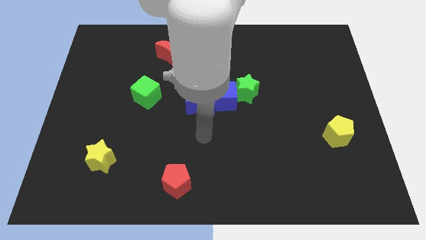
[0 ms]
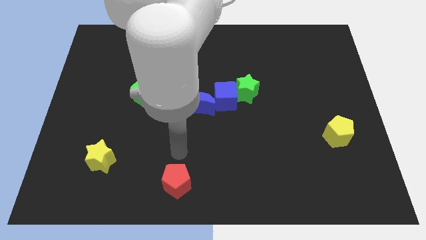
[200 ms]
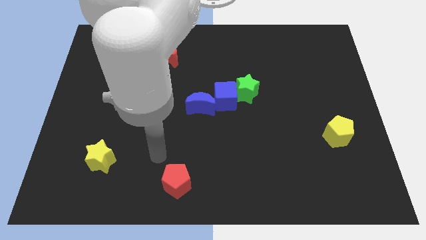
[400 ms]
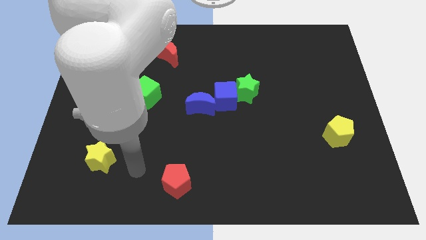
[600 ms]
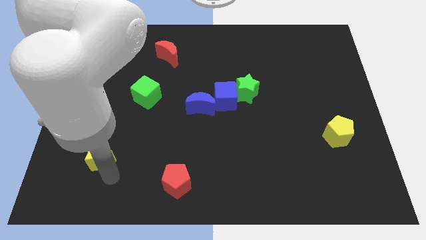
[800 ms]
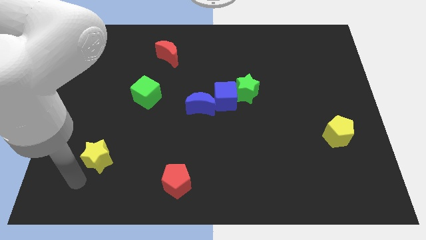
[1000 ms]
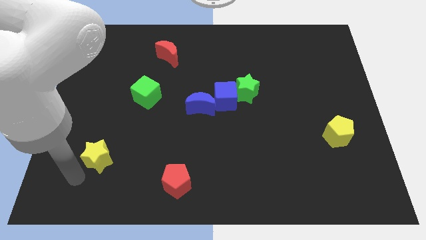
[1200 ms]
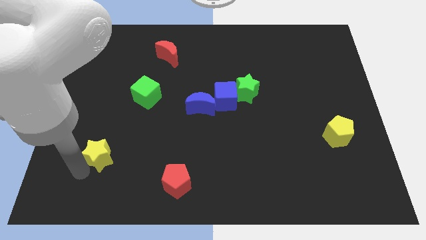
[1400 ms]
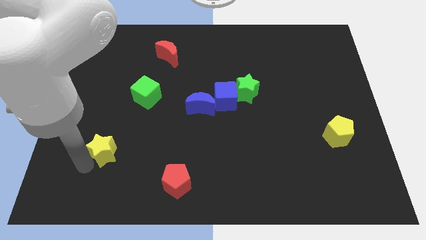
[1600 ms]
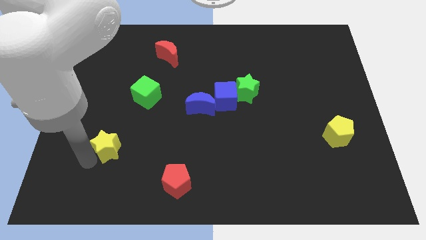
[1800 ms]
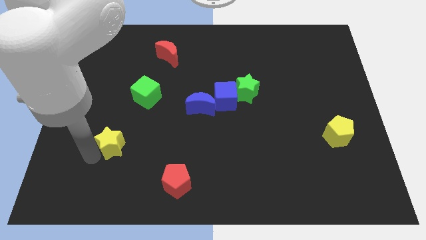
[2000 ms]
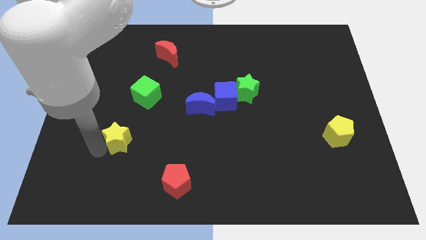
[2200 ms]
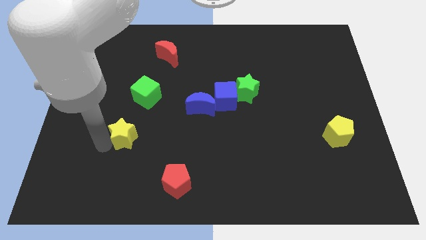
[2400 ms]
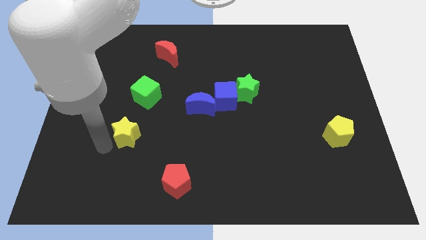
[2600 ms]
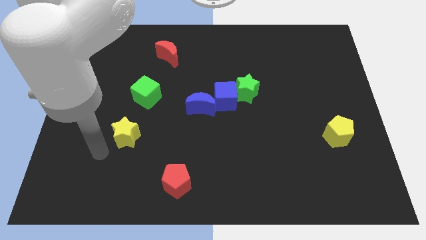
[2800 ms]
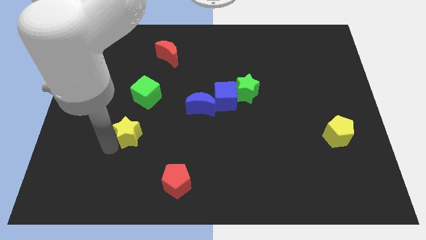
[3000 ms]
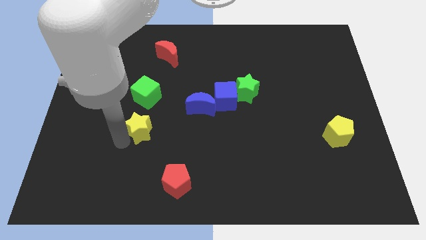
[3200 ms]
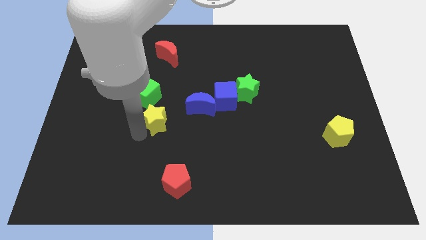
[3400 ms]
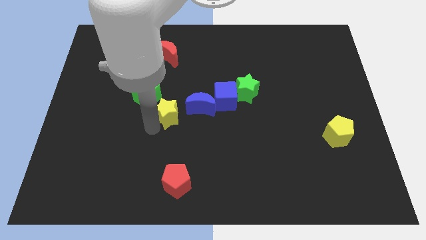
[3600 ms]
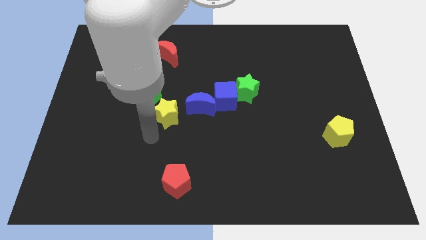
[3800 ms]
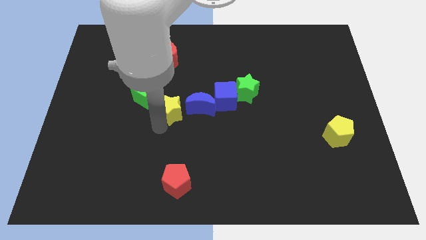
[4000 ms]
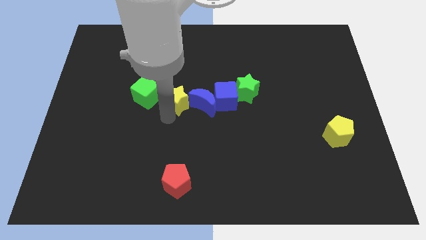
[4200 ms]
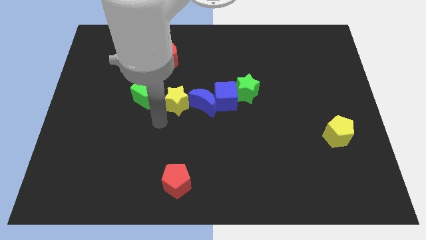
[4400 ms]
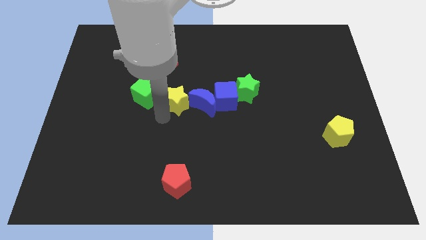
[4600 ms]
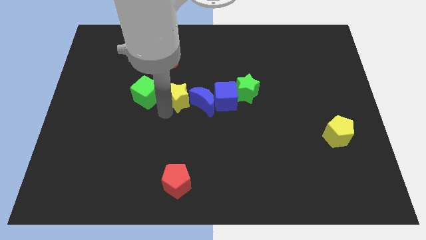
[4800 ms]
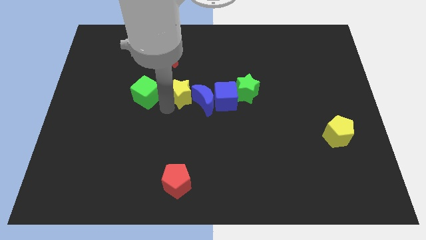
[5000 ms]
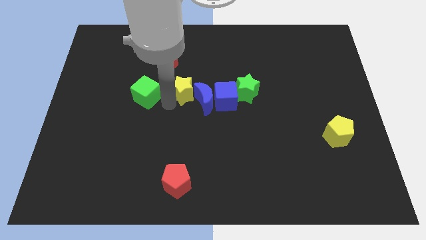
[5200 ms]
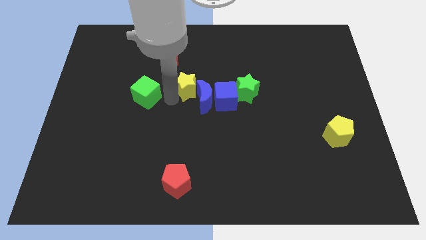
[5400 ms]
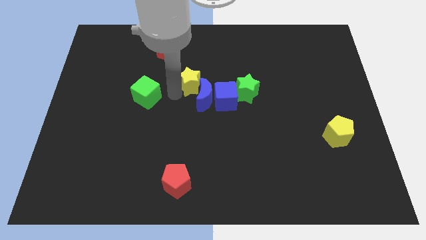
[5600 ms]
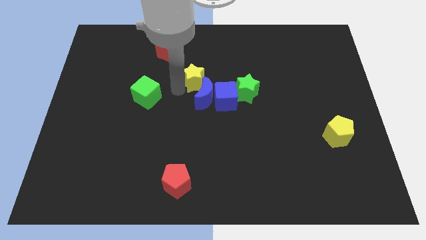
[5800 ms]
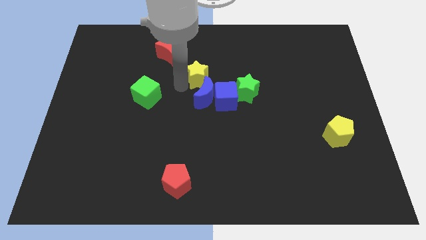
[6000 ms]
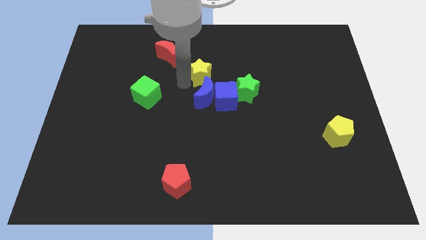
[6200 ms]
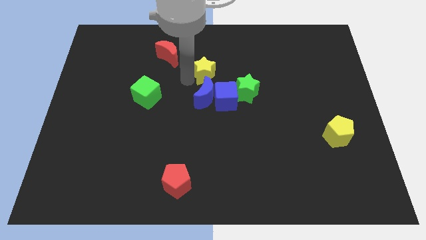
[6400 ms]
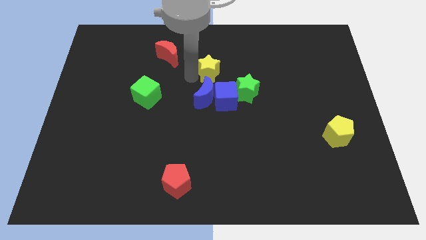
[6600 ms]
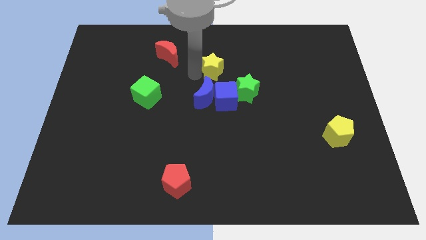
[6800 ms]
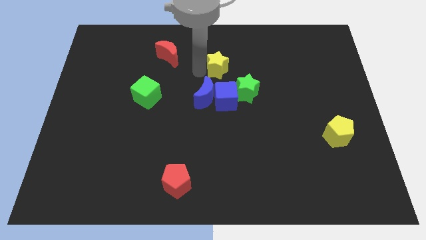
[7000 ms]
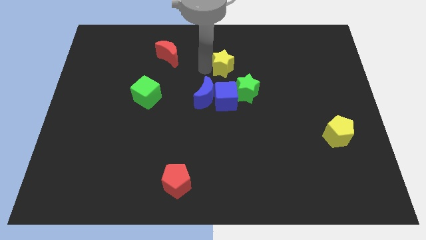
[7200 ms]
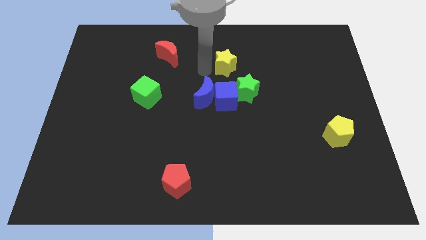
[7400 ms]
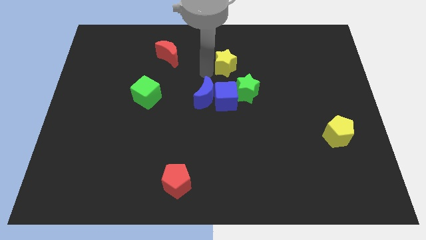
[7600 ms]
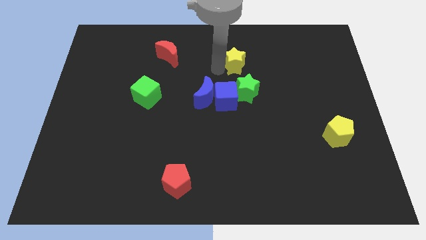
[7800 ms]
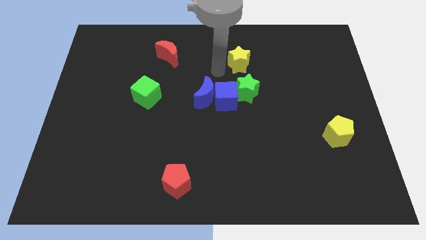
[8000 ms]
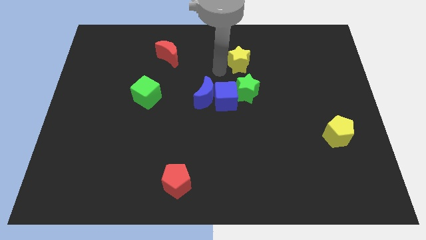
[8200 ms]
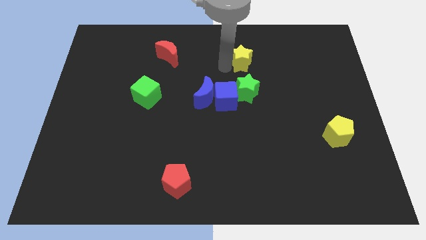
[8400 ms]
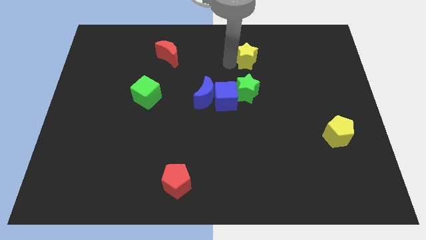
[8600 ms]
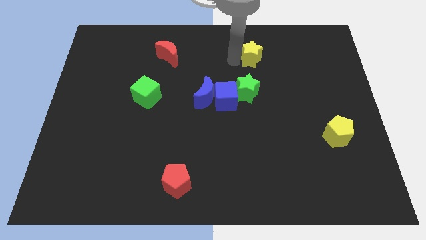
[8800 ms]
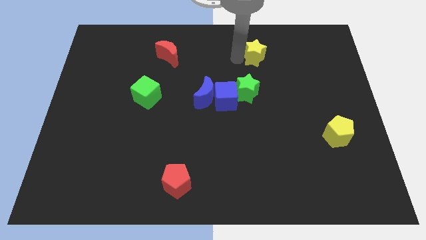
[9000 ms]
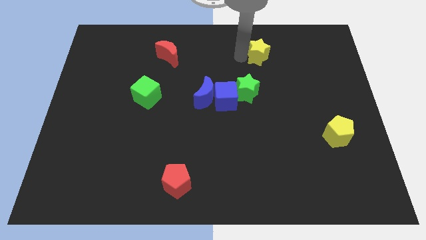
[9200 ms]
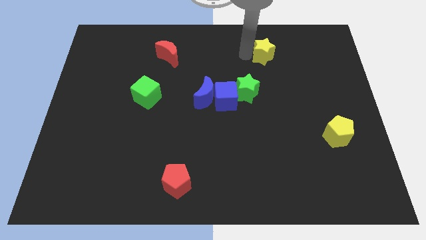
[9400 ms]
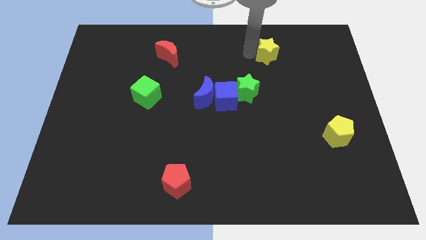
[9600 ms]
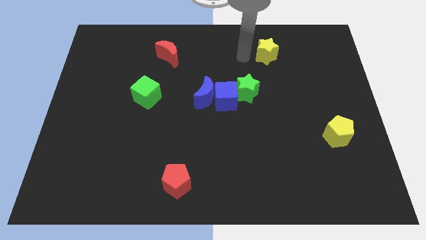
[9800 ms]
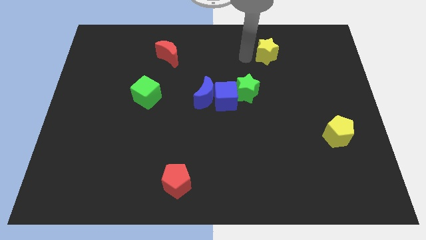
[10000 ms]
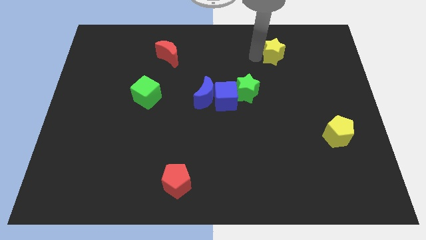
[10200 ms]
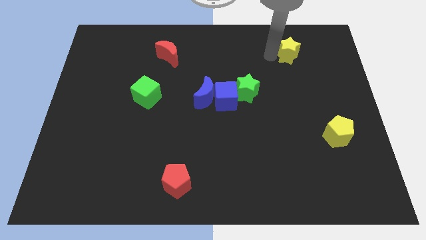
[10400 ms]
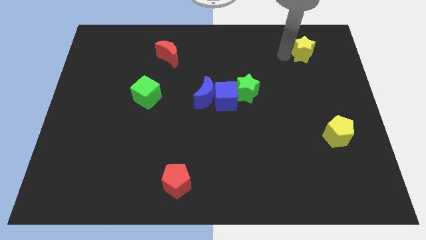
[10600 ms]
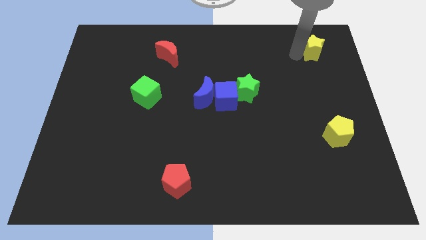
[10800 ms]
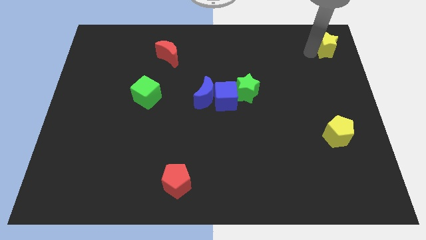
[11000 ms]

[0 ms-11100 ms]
slide the yellow star to the top right corner

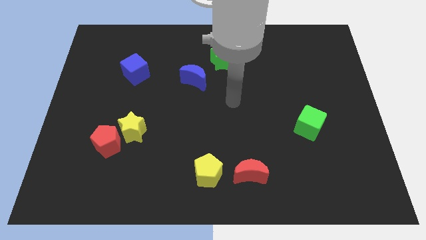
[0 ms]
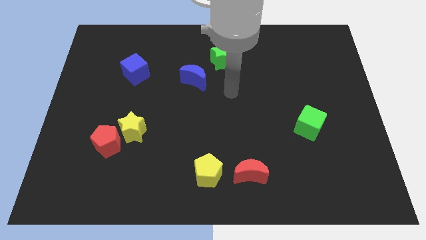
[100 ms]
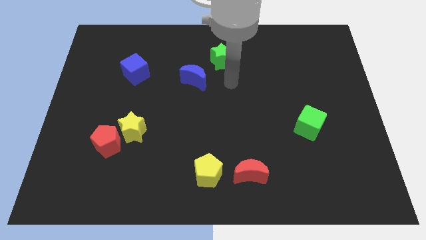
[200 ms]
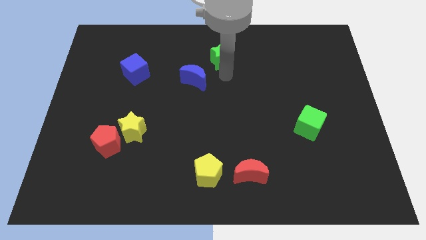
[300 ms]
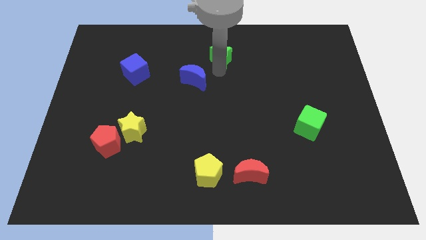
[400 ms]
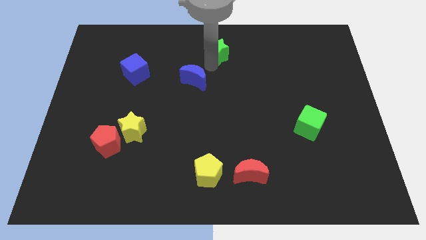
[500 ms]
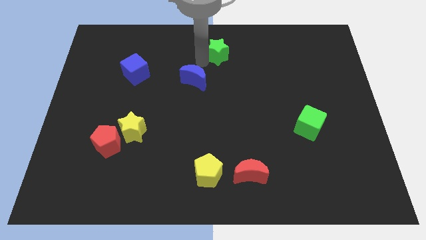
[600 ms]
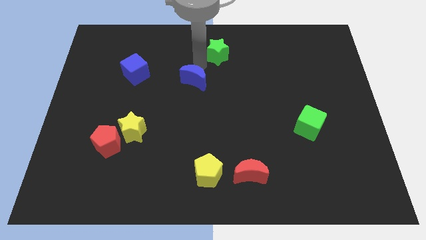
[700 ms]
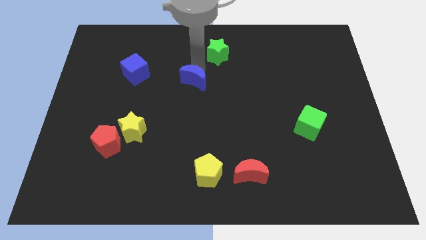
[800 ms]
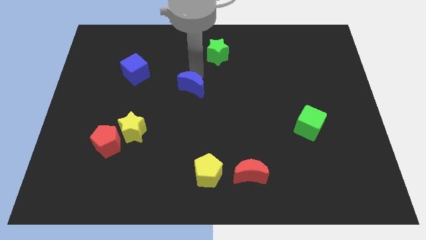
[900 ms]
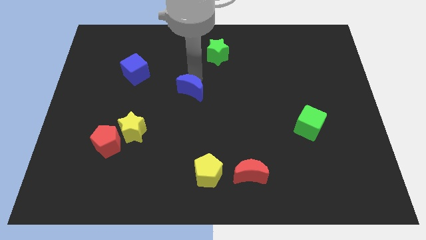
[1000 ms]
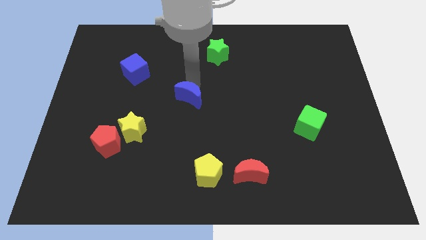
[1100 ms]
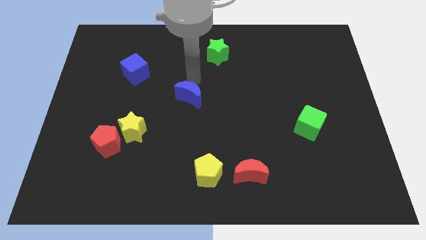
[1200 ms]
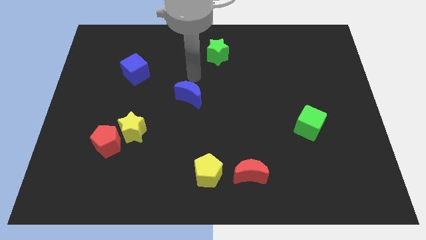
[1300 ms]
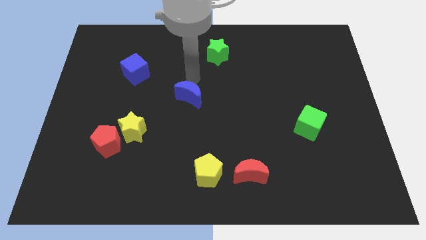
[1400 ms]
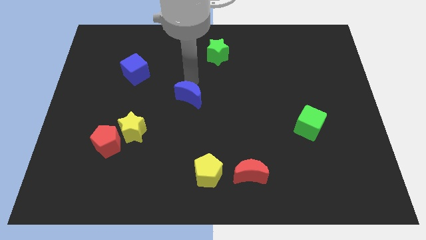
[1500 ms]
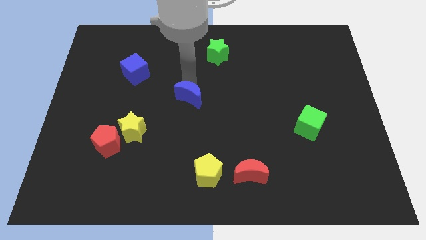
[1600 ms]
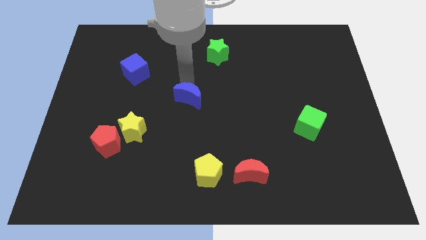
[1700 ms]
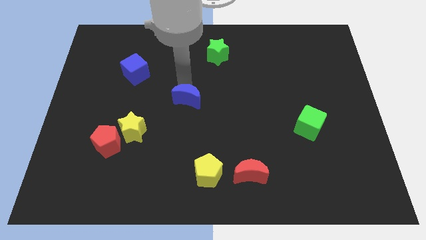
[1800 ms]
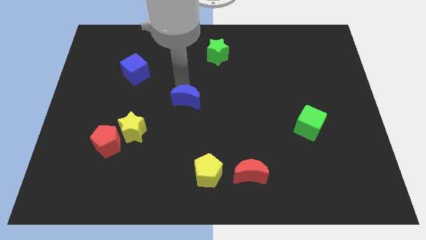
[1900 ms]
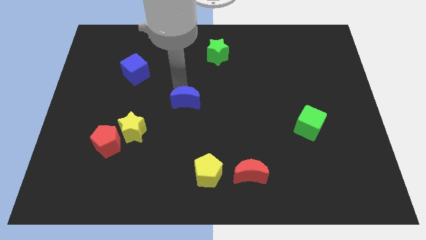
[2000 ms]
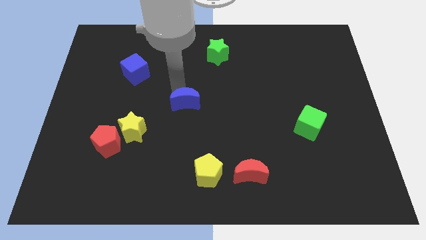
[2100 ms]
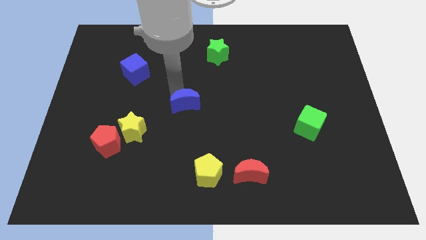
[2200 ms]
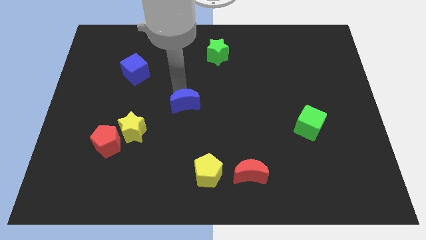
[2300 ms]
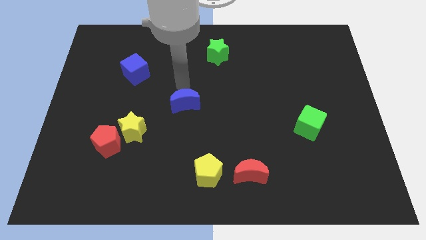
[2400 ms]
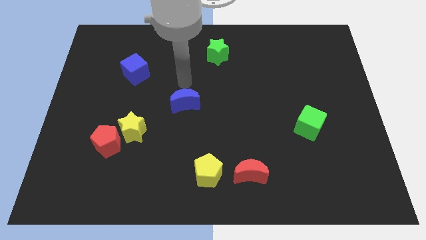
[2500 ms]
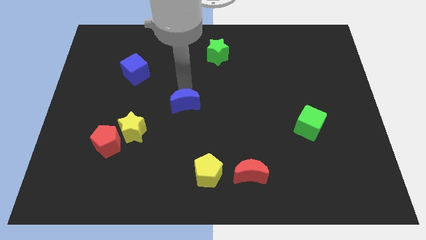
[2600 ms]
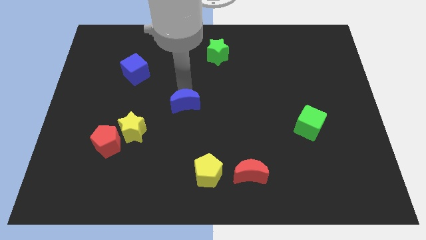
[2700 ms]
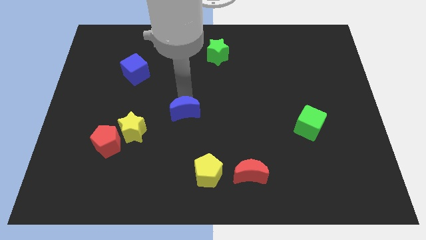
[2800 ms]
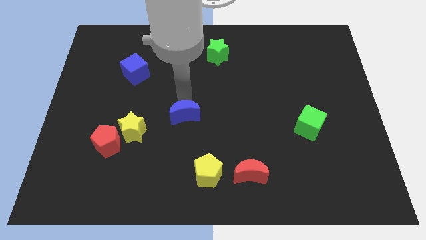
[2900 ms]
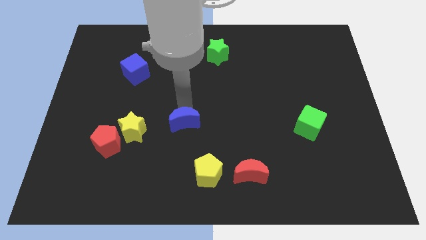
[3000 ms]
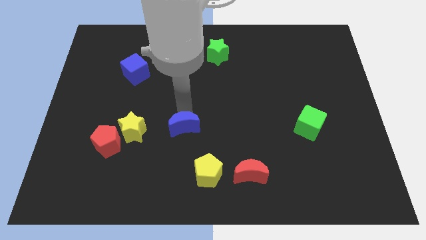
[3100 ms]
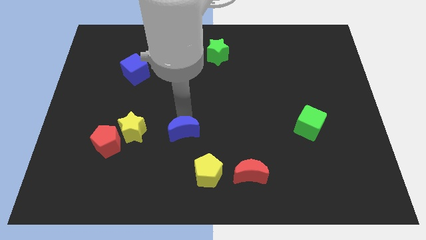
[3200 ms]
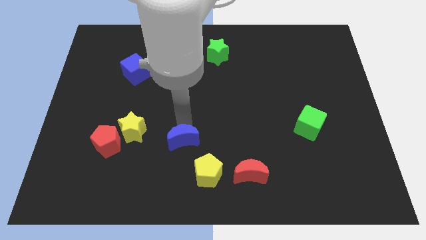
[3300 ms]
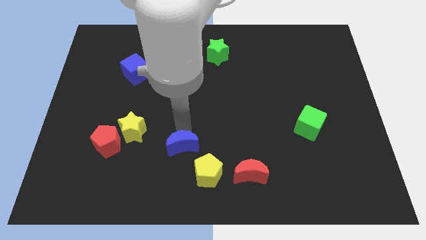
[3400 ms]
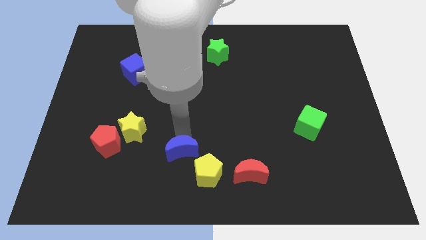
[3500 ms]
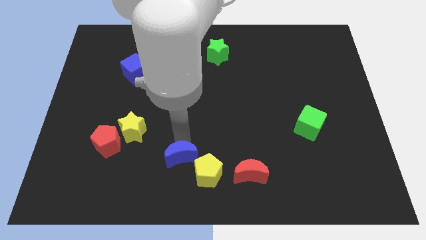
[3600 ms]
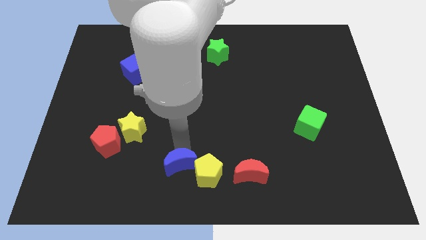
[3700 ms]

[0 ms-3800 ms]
move the blue moon to the bottom side
